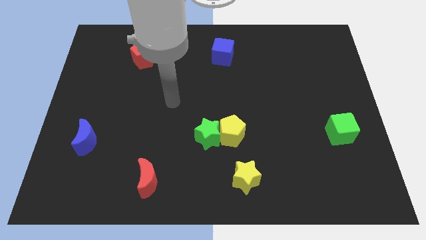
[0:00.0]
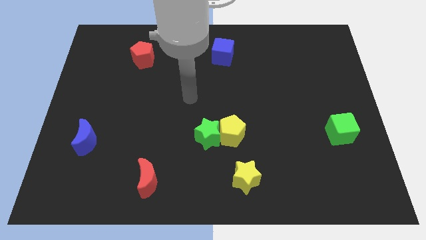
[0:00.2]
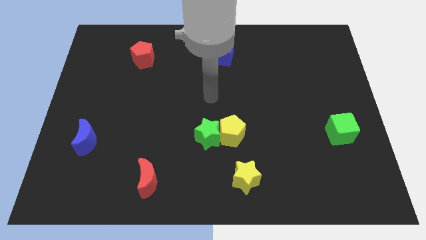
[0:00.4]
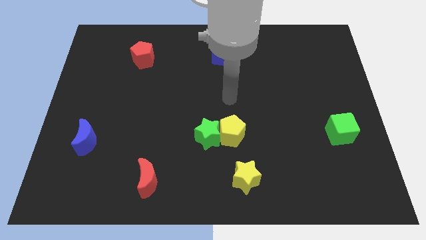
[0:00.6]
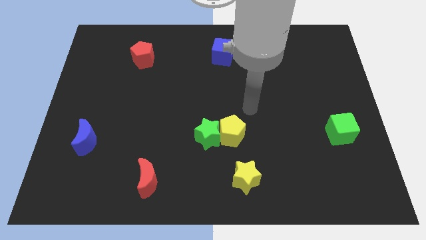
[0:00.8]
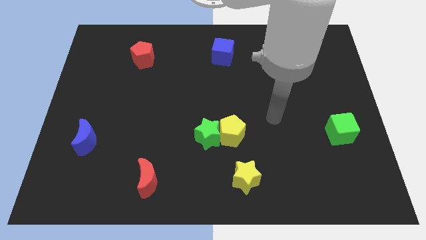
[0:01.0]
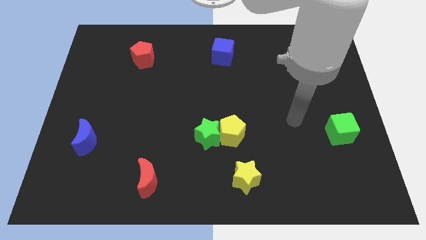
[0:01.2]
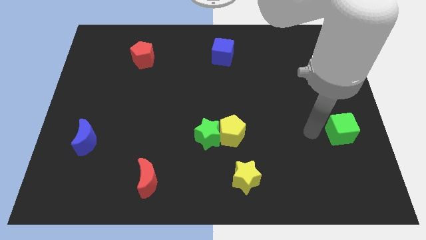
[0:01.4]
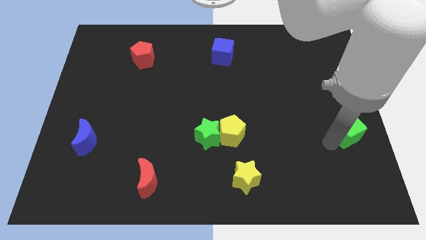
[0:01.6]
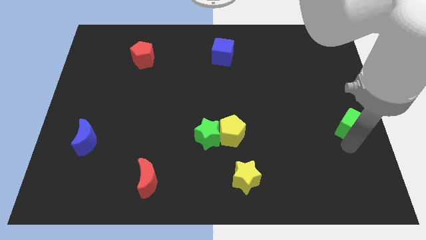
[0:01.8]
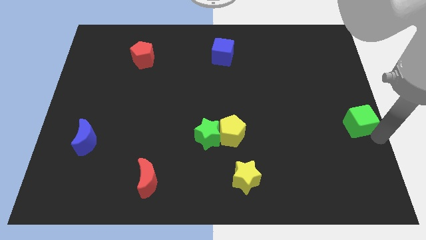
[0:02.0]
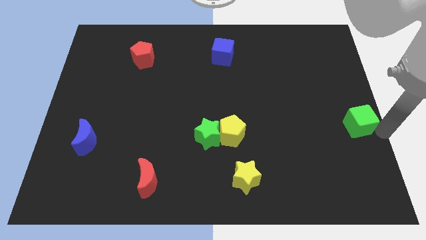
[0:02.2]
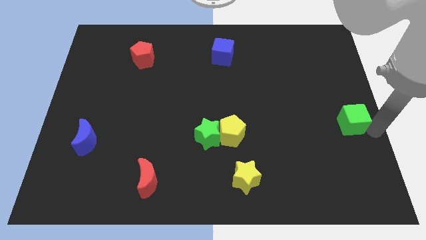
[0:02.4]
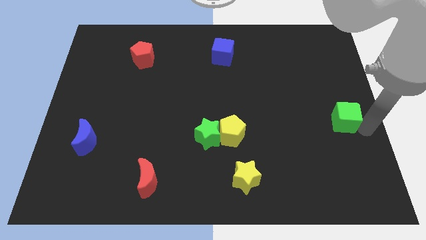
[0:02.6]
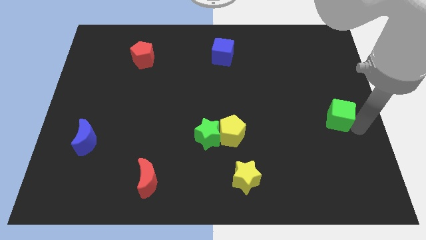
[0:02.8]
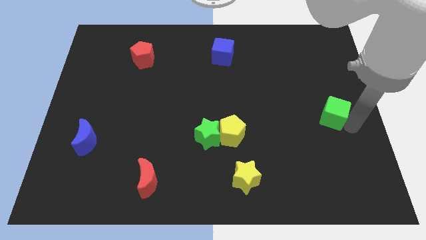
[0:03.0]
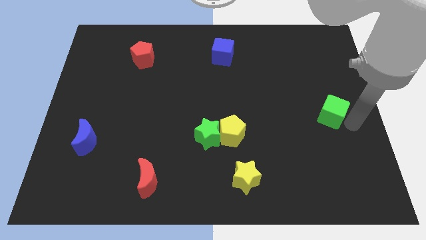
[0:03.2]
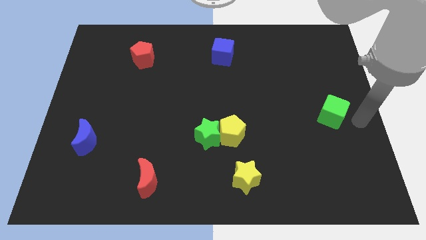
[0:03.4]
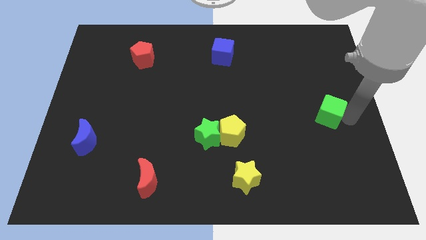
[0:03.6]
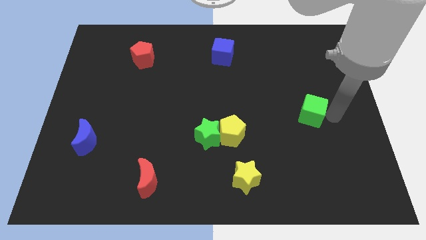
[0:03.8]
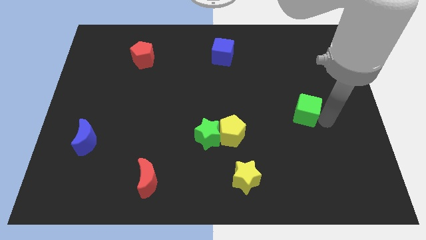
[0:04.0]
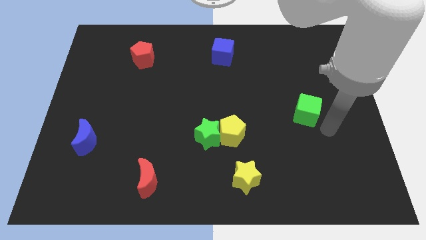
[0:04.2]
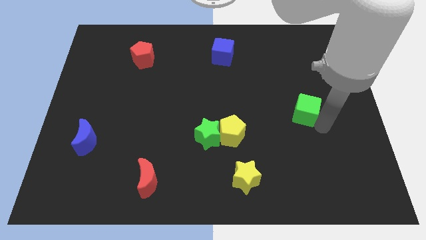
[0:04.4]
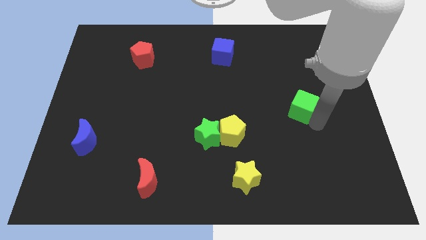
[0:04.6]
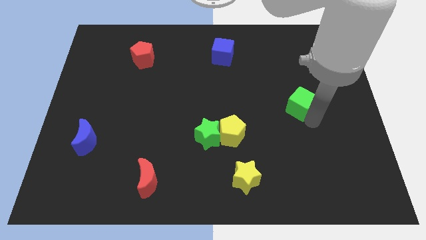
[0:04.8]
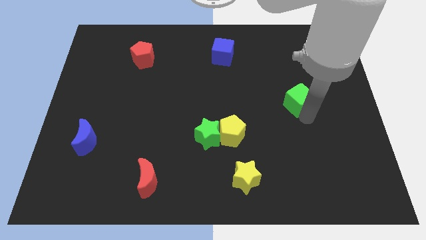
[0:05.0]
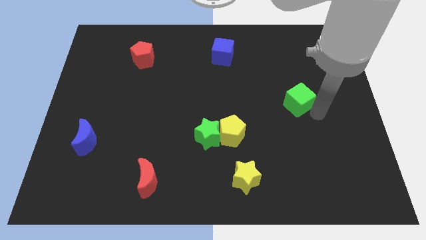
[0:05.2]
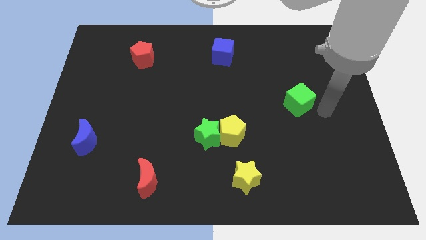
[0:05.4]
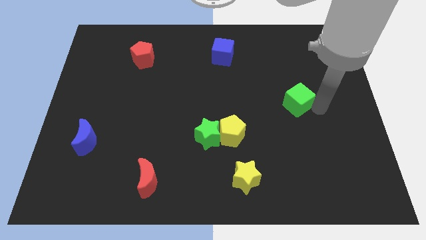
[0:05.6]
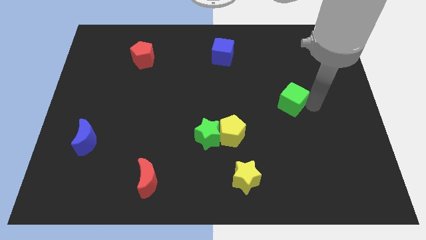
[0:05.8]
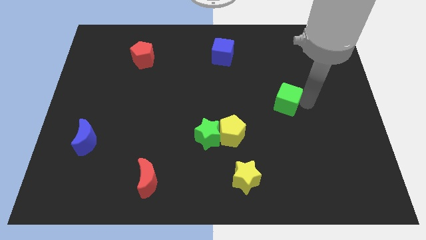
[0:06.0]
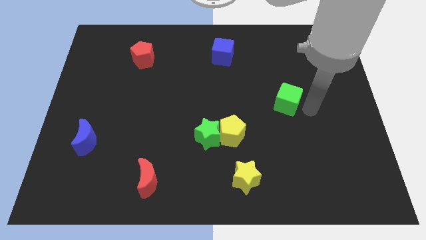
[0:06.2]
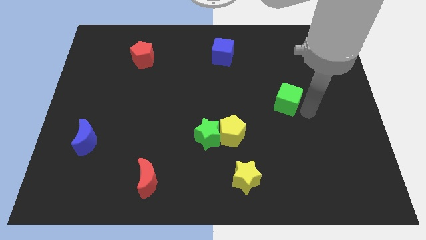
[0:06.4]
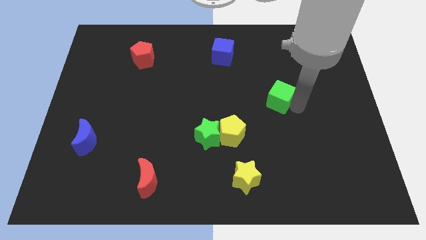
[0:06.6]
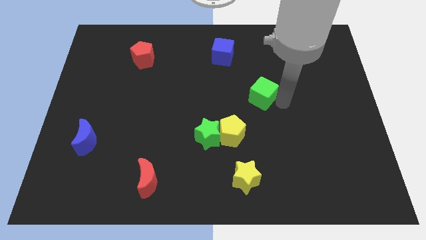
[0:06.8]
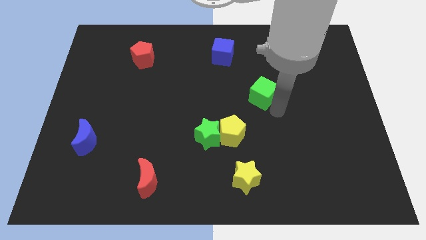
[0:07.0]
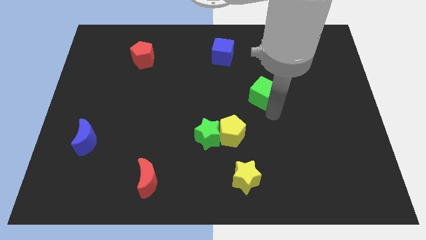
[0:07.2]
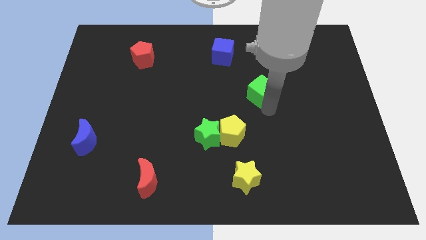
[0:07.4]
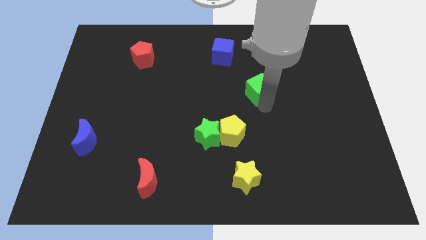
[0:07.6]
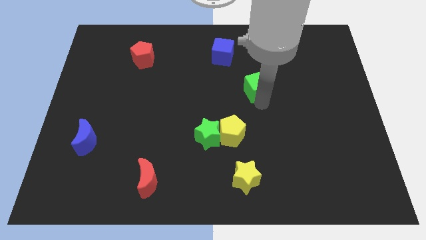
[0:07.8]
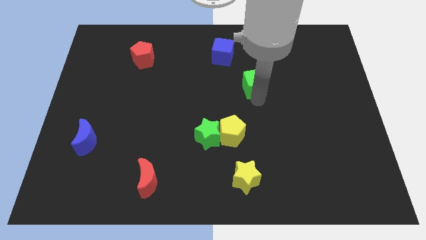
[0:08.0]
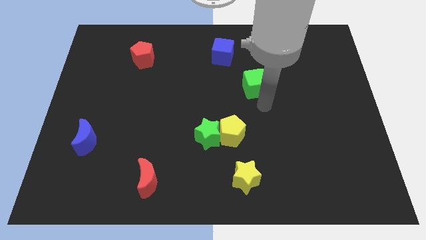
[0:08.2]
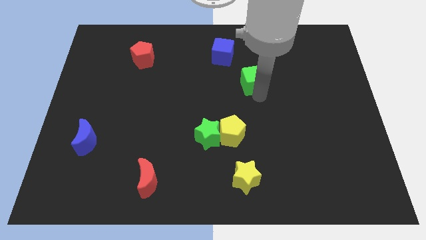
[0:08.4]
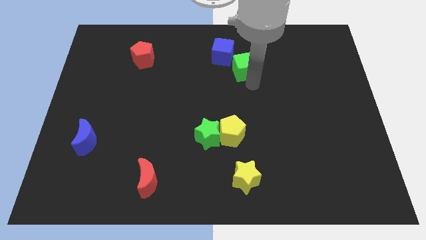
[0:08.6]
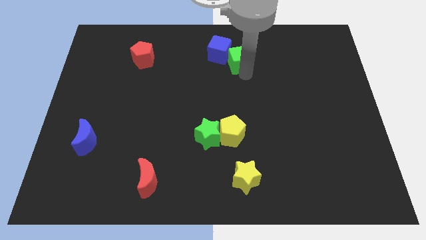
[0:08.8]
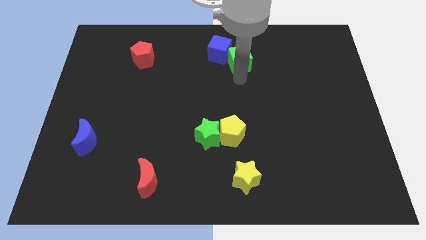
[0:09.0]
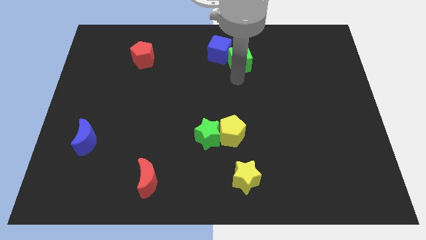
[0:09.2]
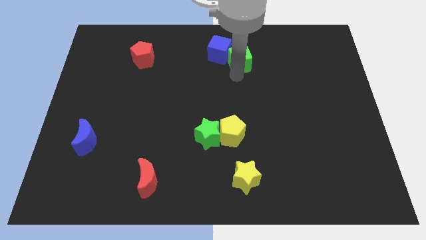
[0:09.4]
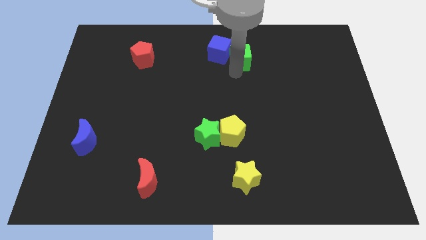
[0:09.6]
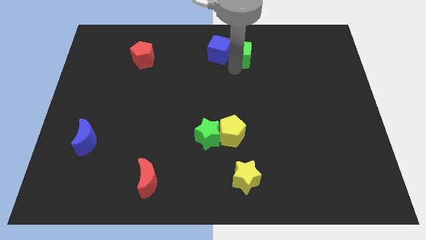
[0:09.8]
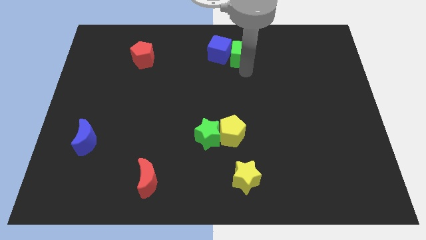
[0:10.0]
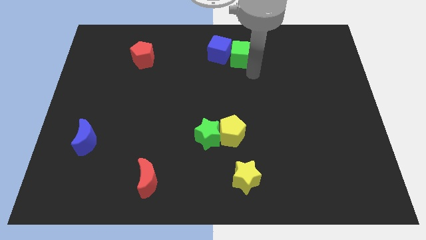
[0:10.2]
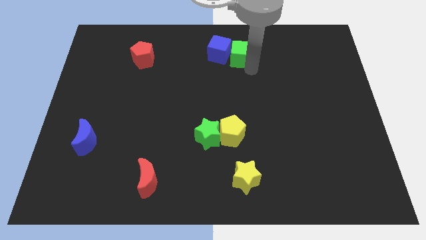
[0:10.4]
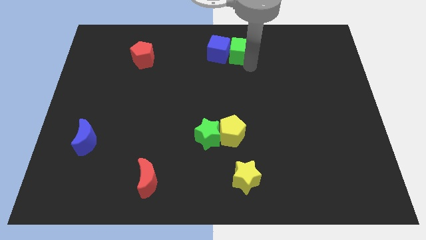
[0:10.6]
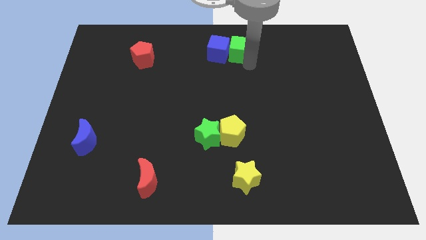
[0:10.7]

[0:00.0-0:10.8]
push the green cube to the towards your base
